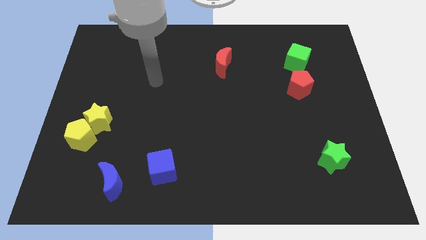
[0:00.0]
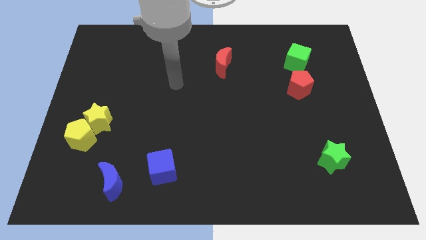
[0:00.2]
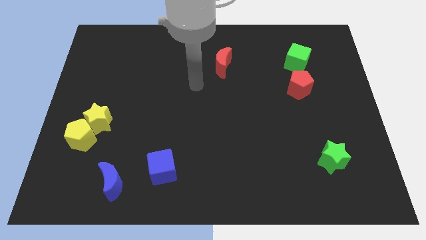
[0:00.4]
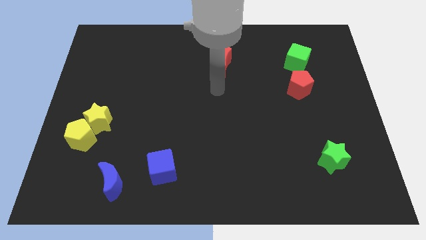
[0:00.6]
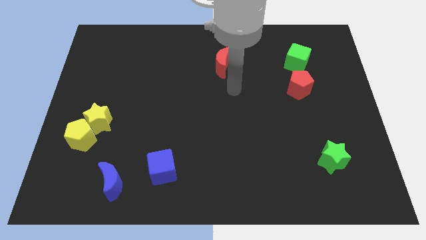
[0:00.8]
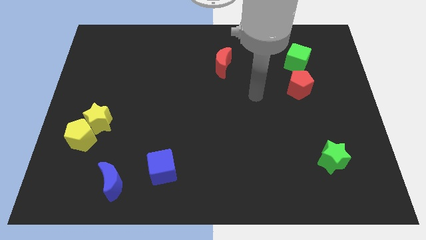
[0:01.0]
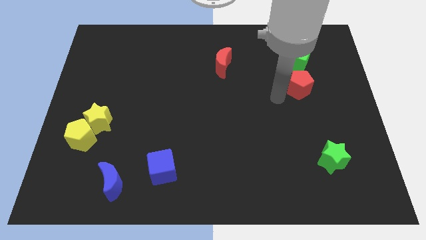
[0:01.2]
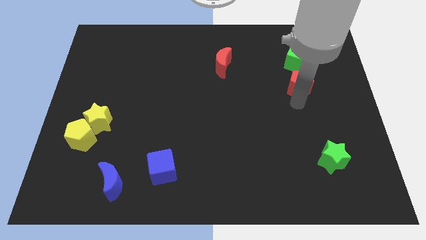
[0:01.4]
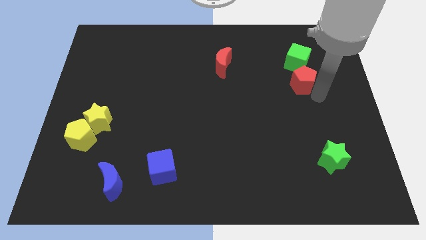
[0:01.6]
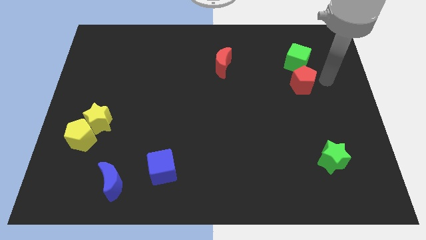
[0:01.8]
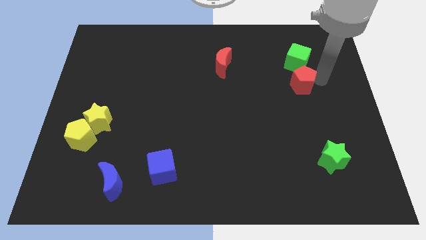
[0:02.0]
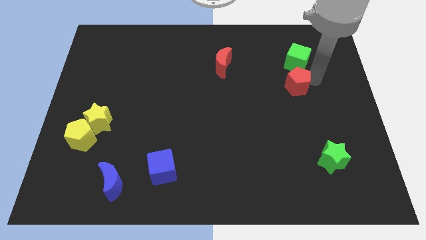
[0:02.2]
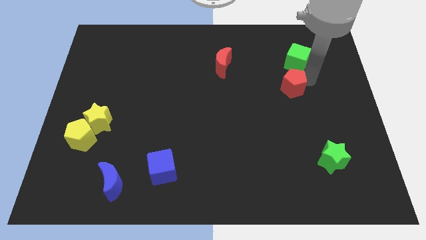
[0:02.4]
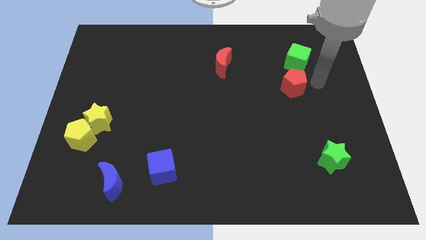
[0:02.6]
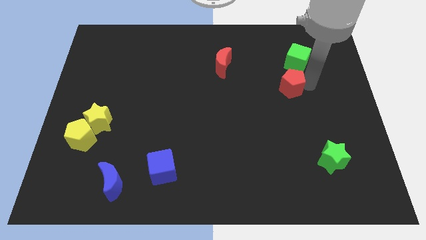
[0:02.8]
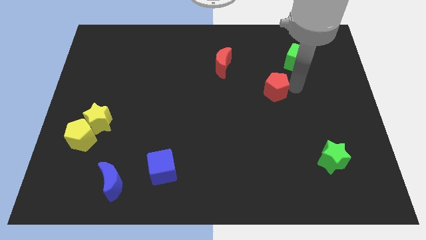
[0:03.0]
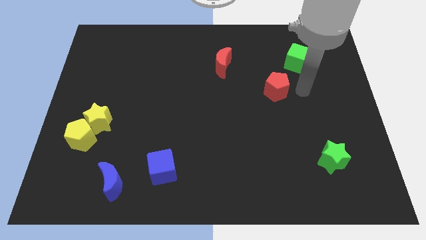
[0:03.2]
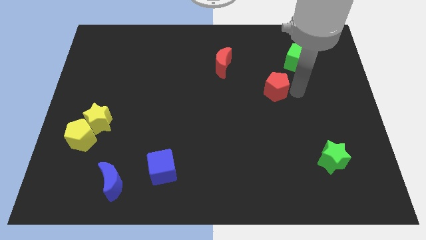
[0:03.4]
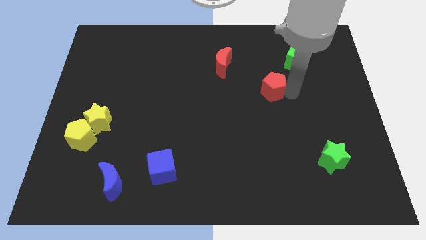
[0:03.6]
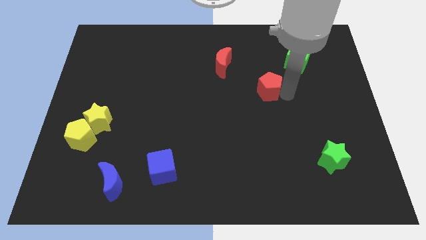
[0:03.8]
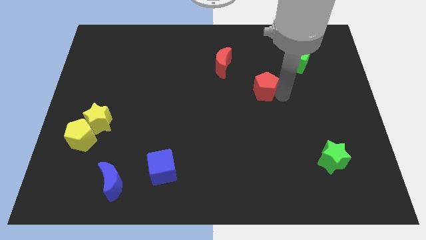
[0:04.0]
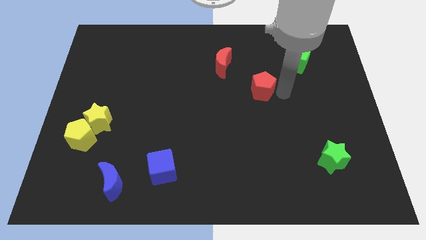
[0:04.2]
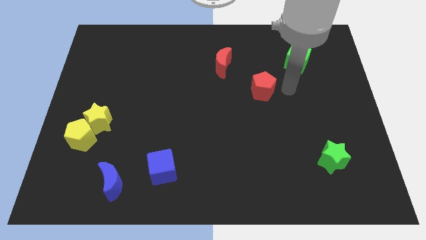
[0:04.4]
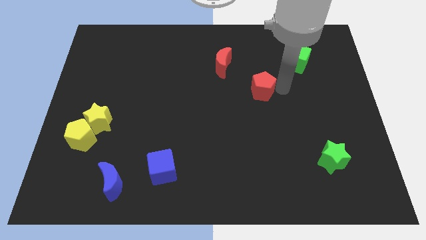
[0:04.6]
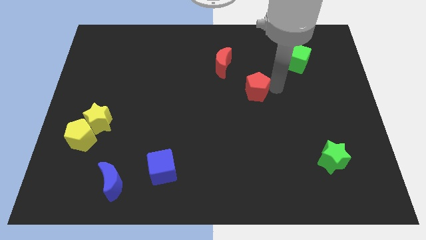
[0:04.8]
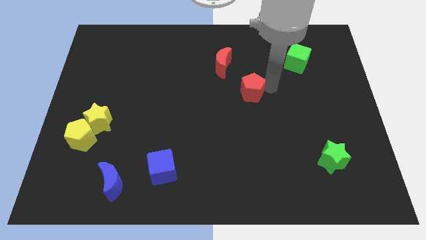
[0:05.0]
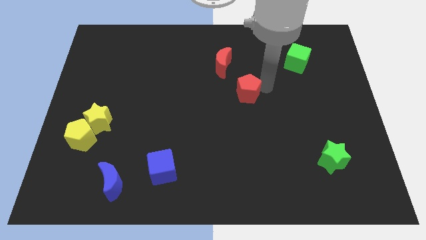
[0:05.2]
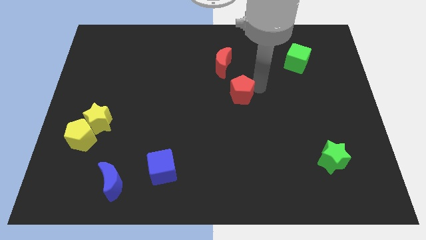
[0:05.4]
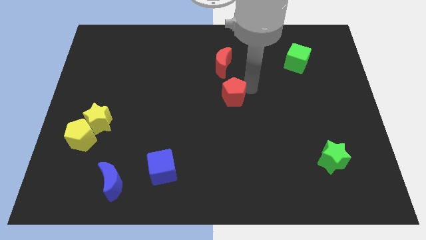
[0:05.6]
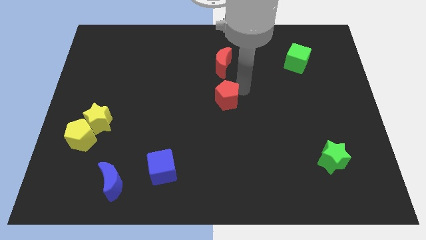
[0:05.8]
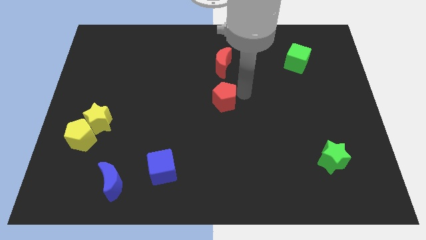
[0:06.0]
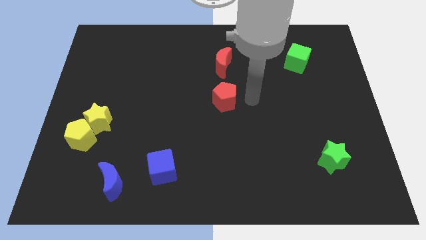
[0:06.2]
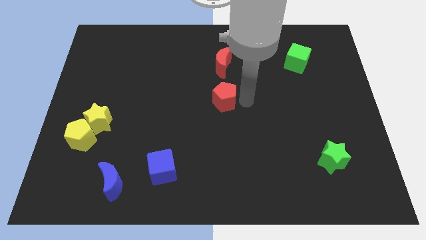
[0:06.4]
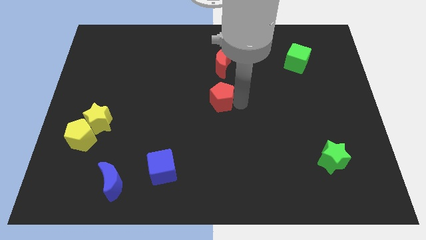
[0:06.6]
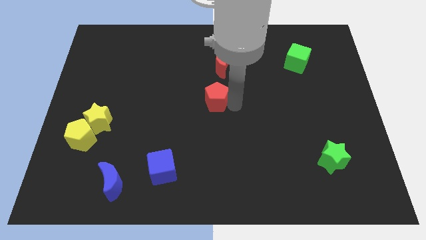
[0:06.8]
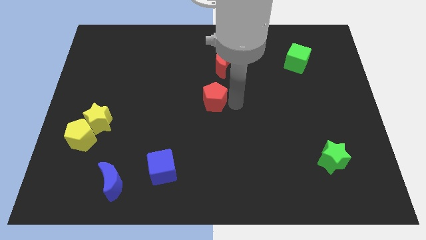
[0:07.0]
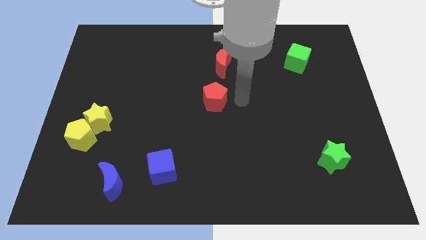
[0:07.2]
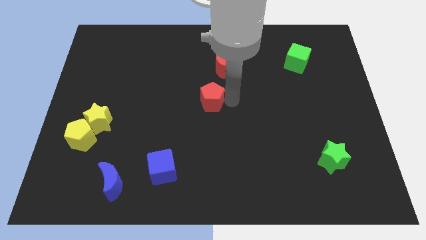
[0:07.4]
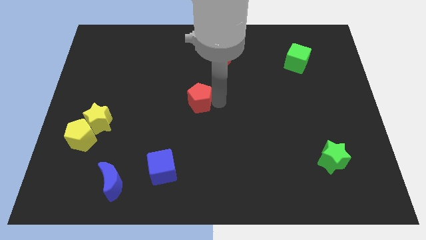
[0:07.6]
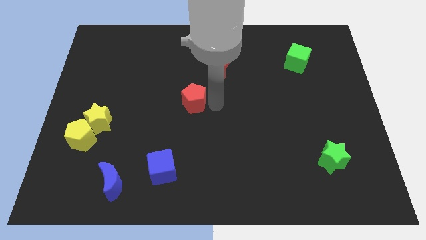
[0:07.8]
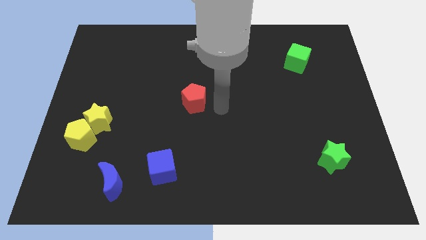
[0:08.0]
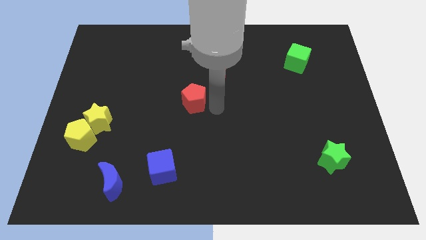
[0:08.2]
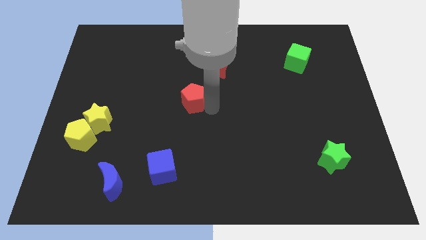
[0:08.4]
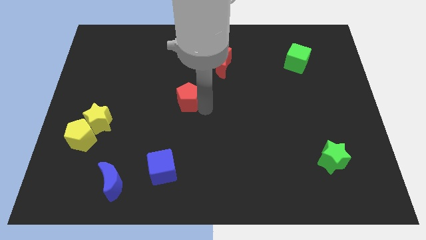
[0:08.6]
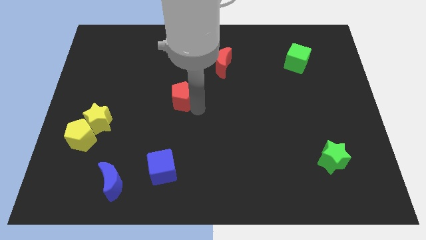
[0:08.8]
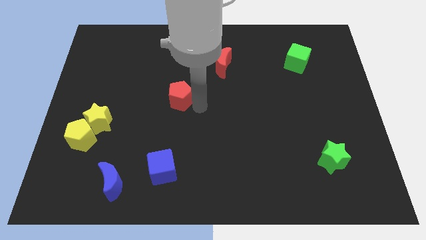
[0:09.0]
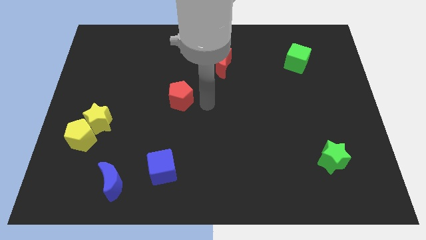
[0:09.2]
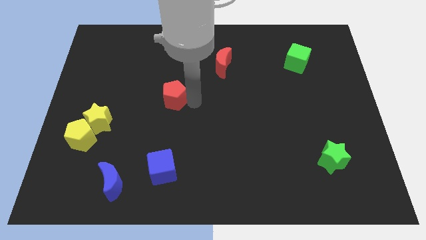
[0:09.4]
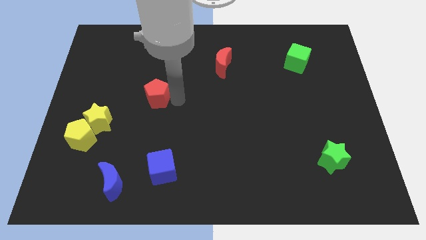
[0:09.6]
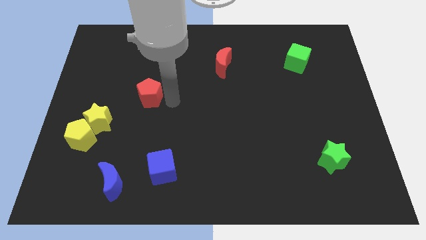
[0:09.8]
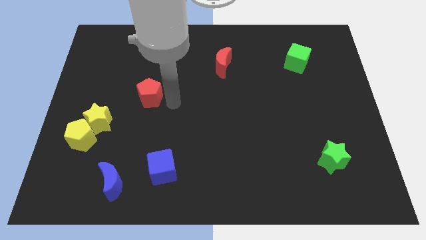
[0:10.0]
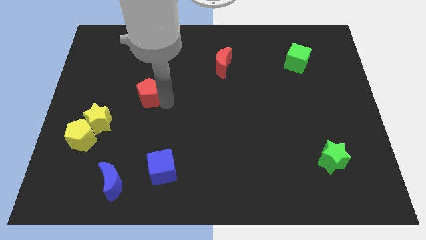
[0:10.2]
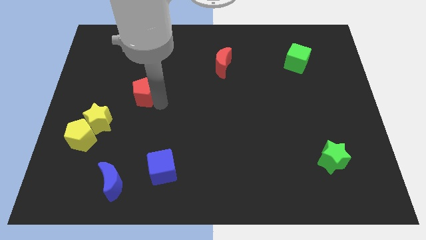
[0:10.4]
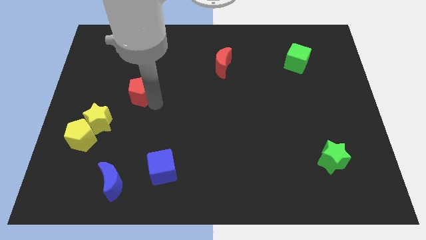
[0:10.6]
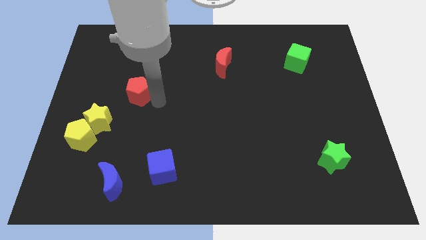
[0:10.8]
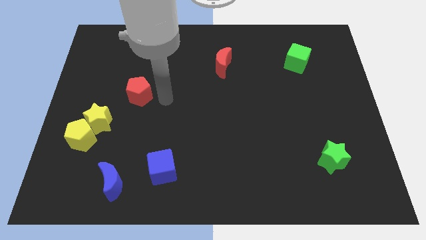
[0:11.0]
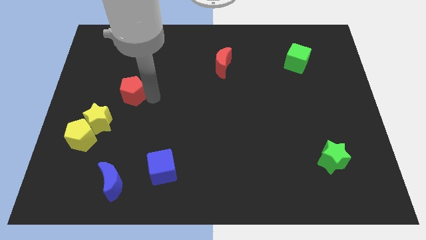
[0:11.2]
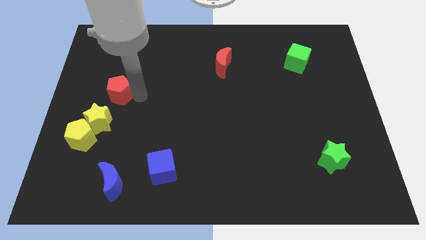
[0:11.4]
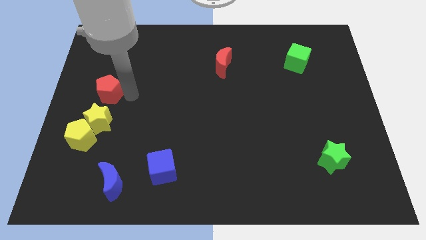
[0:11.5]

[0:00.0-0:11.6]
push the red pentagon to the left side of the board

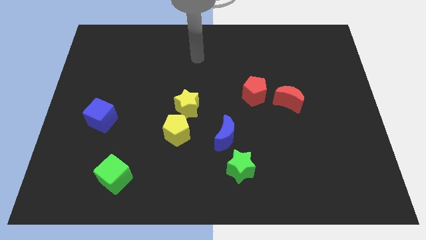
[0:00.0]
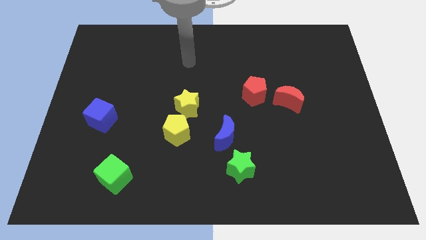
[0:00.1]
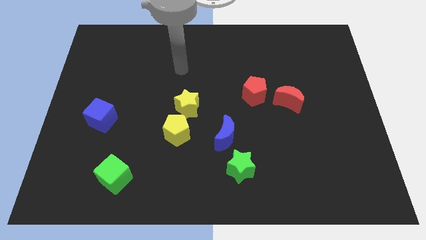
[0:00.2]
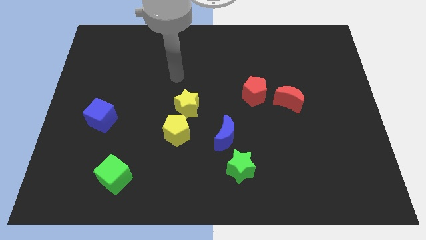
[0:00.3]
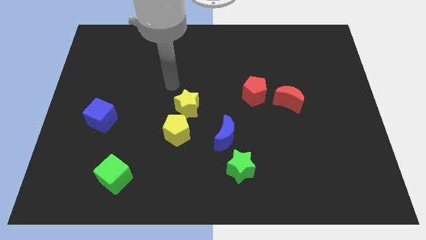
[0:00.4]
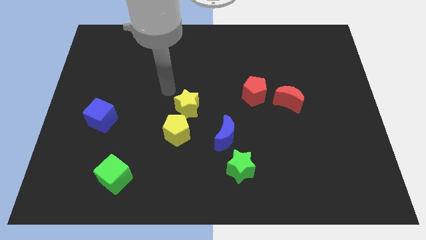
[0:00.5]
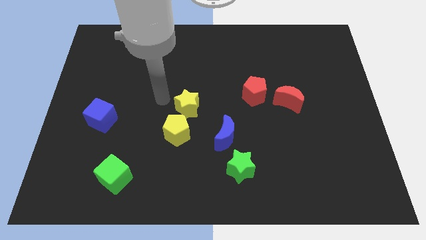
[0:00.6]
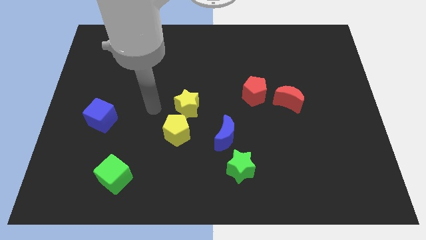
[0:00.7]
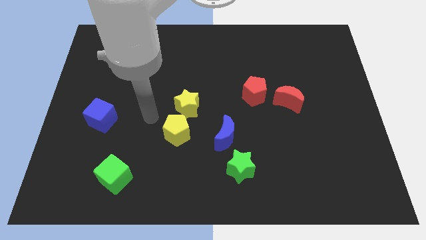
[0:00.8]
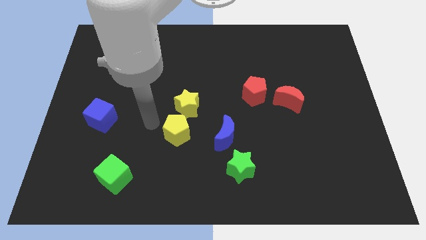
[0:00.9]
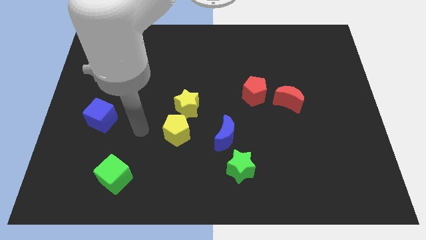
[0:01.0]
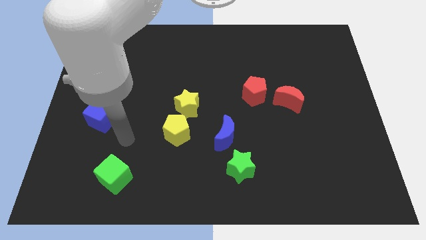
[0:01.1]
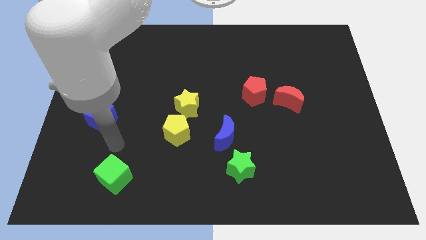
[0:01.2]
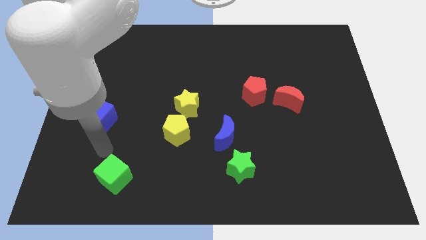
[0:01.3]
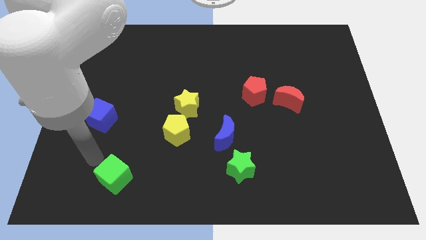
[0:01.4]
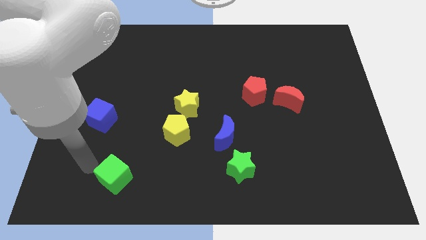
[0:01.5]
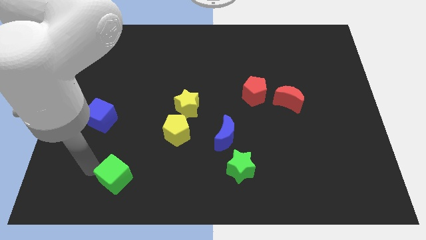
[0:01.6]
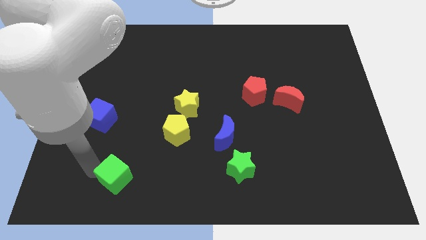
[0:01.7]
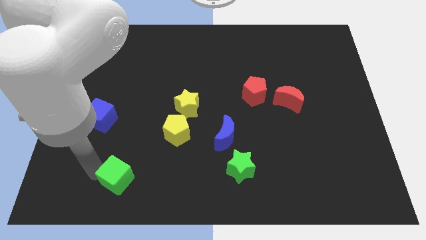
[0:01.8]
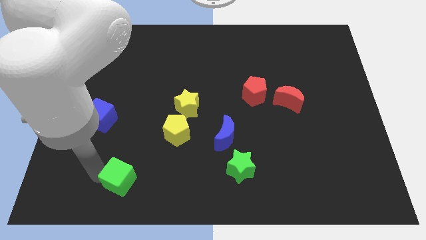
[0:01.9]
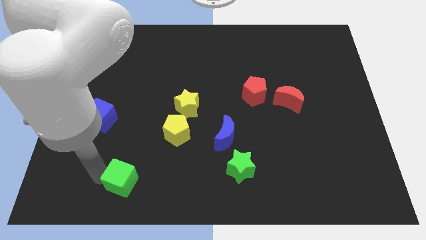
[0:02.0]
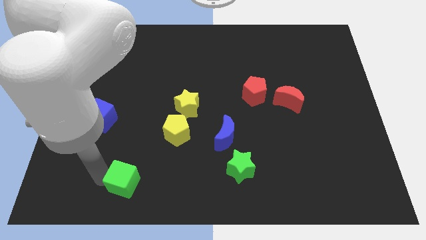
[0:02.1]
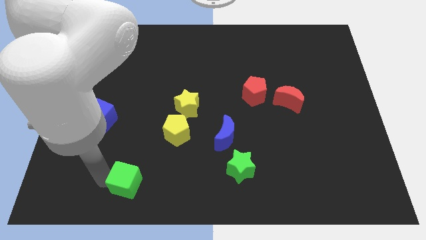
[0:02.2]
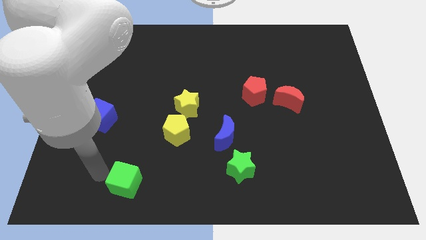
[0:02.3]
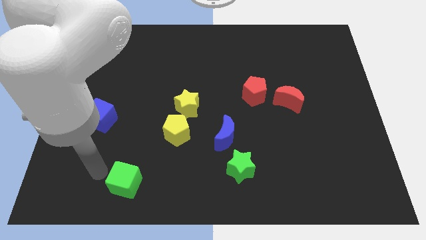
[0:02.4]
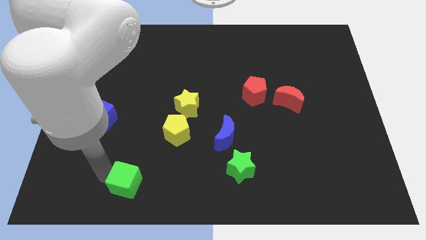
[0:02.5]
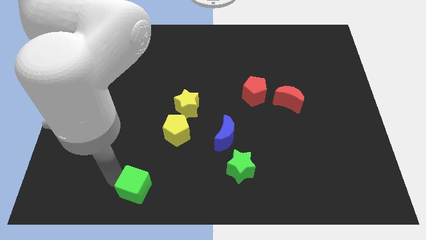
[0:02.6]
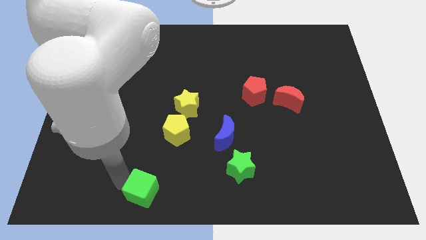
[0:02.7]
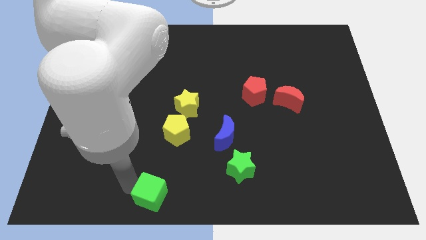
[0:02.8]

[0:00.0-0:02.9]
put the green cube to the bottom
